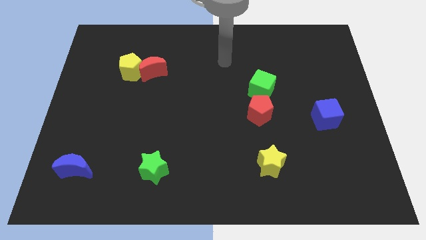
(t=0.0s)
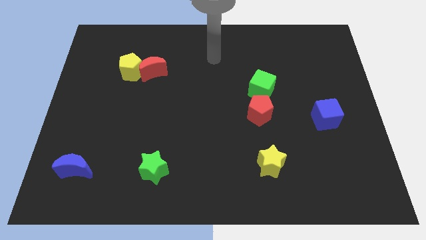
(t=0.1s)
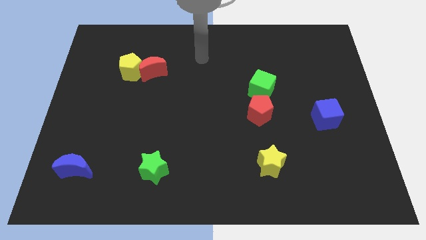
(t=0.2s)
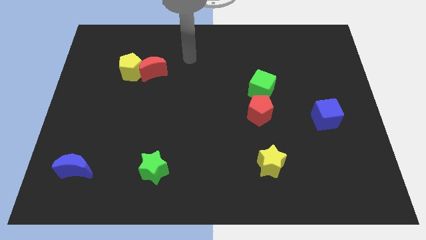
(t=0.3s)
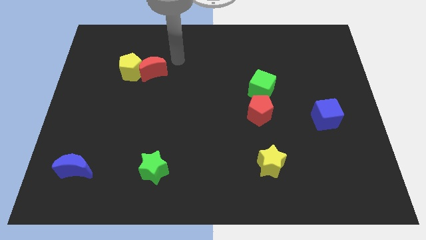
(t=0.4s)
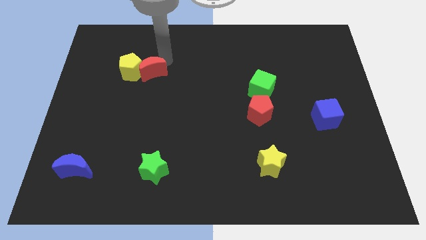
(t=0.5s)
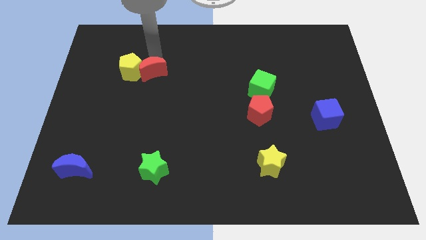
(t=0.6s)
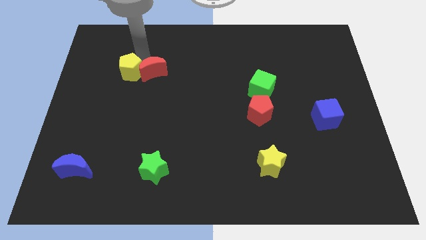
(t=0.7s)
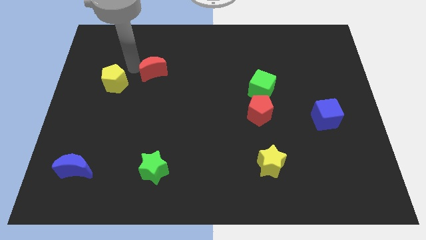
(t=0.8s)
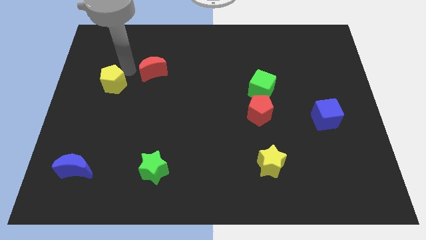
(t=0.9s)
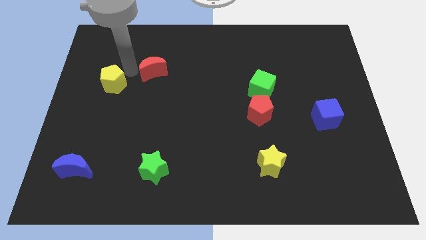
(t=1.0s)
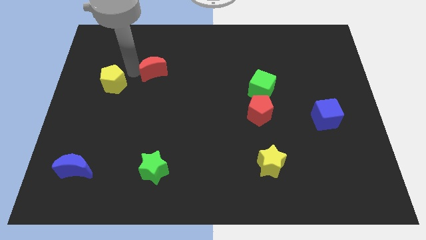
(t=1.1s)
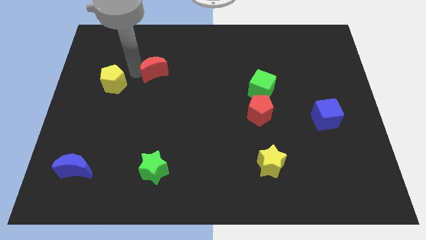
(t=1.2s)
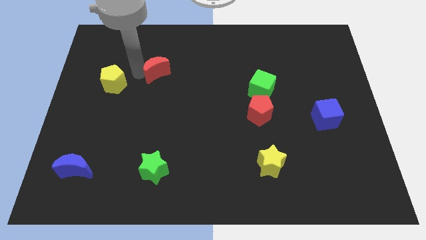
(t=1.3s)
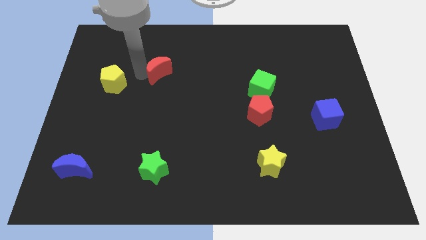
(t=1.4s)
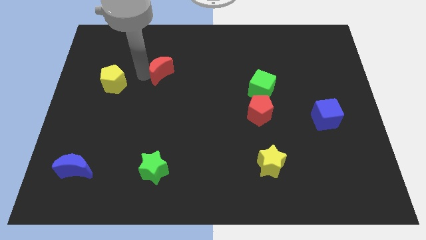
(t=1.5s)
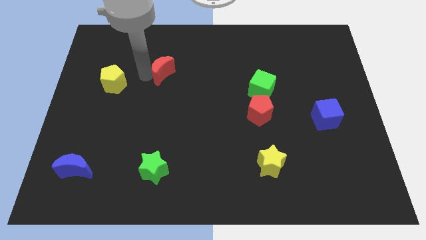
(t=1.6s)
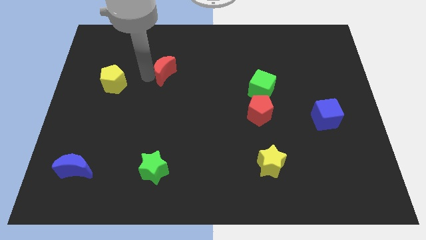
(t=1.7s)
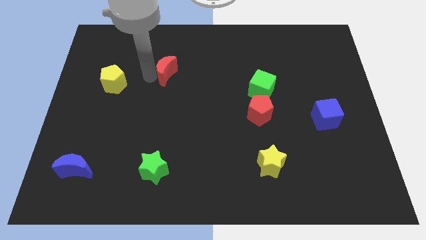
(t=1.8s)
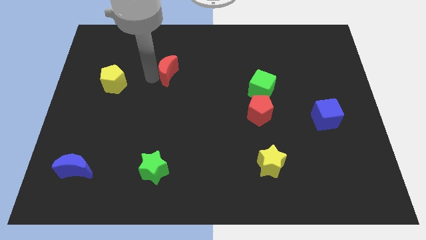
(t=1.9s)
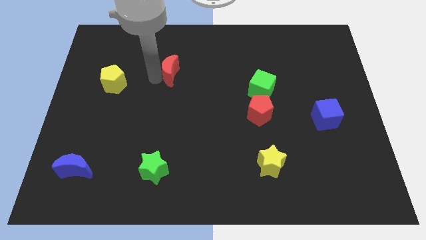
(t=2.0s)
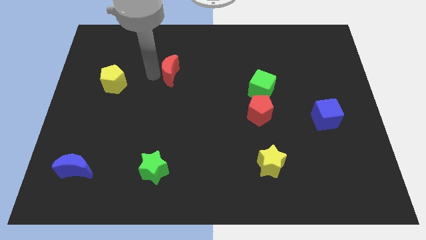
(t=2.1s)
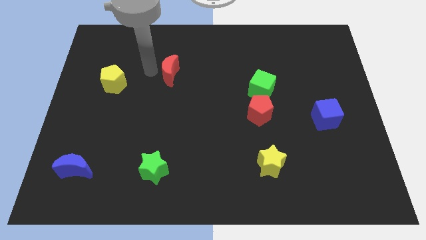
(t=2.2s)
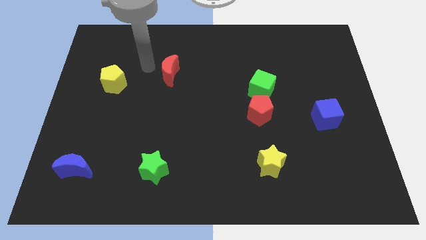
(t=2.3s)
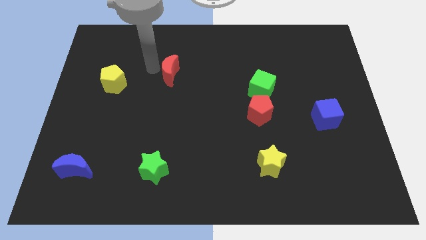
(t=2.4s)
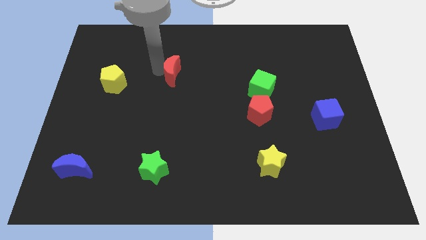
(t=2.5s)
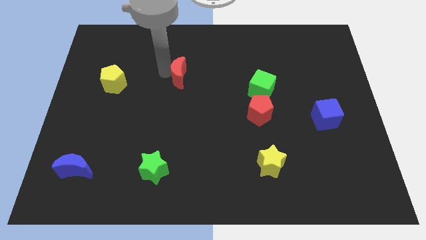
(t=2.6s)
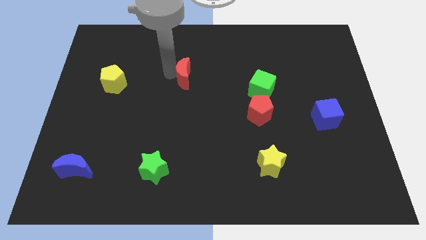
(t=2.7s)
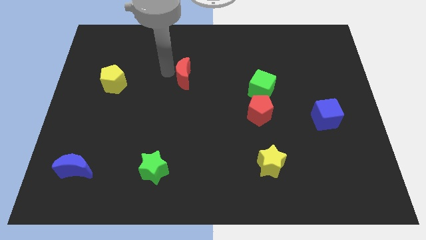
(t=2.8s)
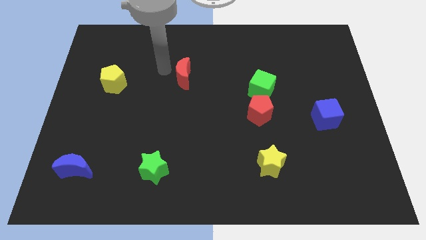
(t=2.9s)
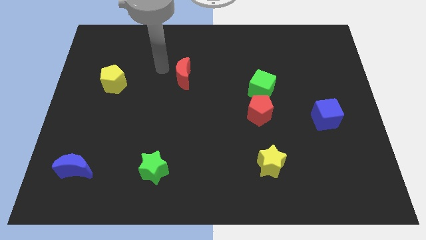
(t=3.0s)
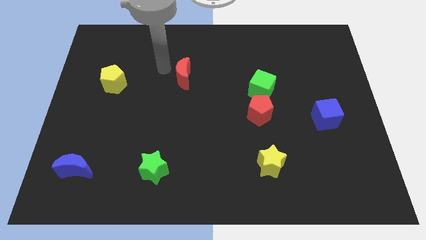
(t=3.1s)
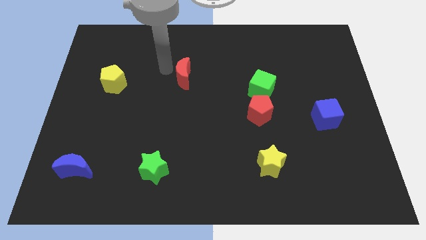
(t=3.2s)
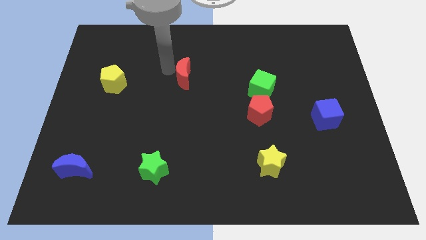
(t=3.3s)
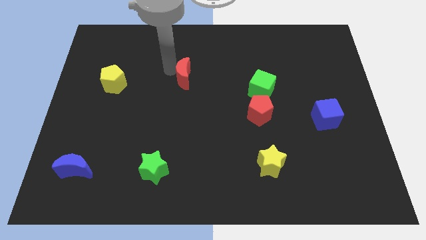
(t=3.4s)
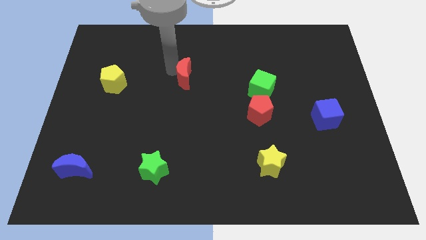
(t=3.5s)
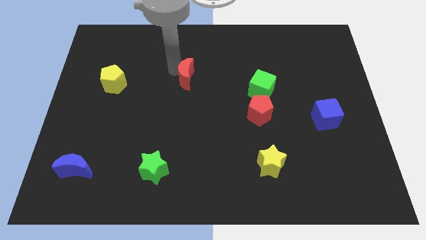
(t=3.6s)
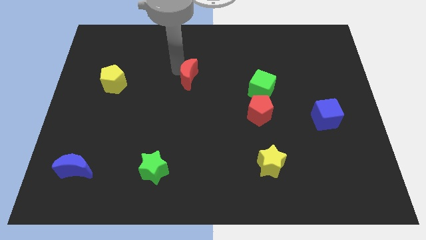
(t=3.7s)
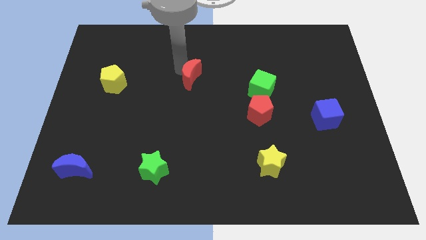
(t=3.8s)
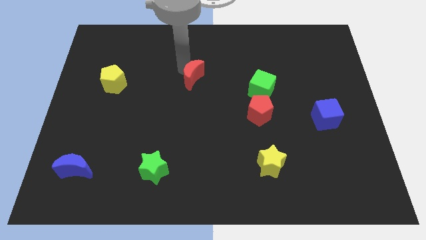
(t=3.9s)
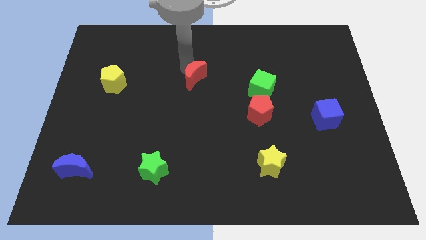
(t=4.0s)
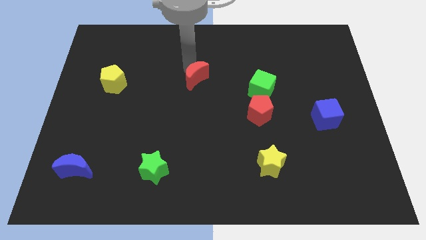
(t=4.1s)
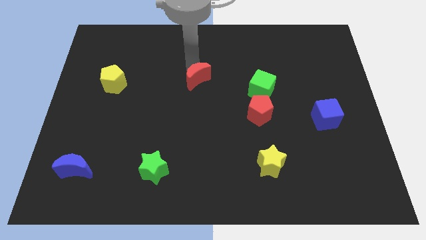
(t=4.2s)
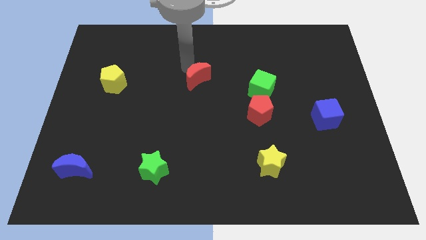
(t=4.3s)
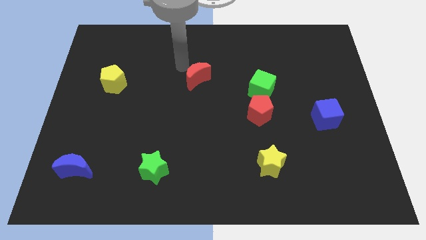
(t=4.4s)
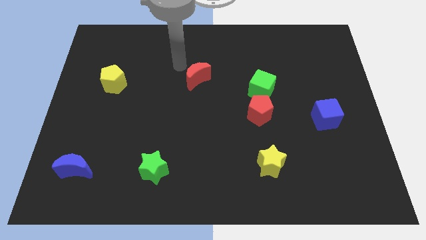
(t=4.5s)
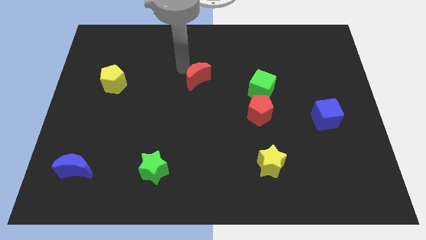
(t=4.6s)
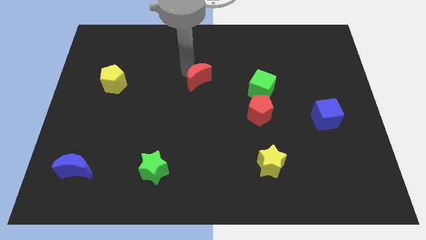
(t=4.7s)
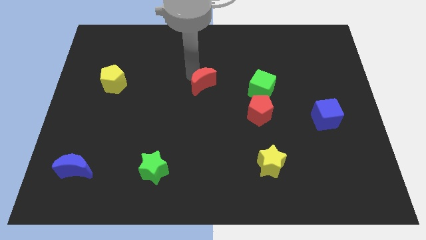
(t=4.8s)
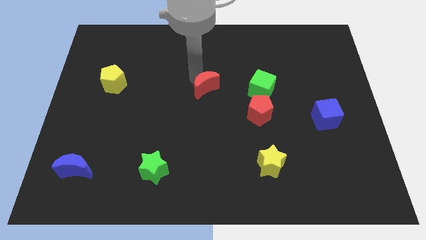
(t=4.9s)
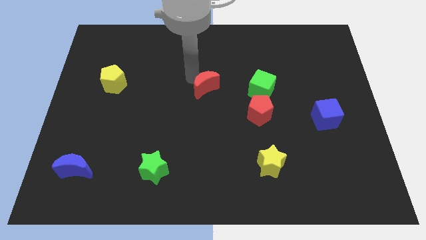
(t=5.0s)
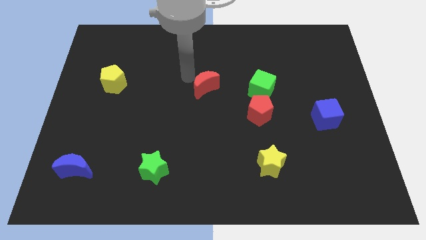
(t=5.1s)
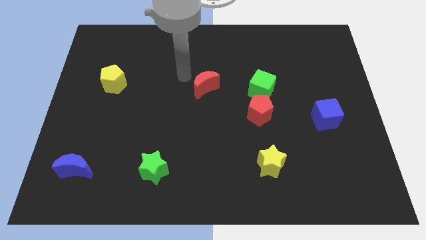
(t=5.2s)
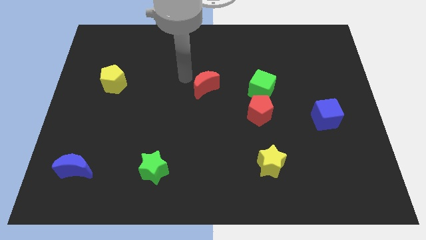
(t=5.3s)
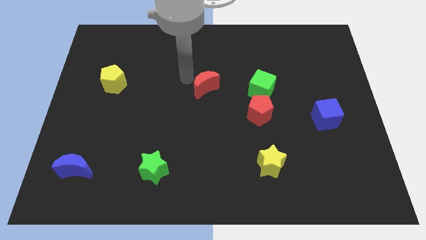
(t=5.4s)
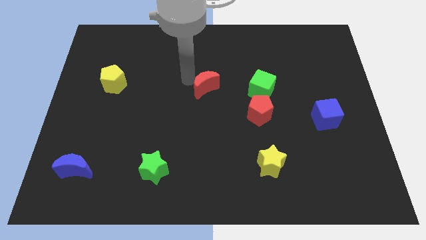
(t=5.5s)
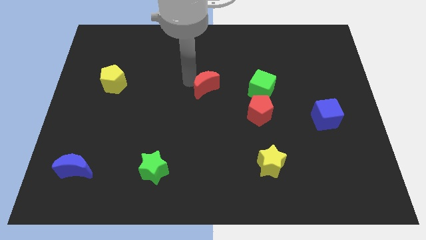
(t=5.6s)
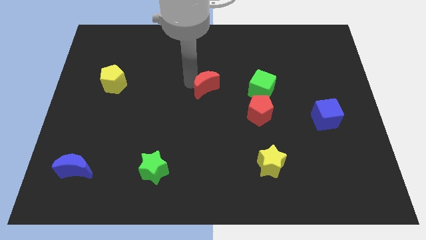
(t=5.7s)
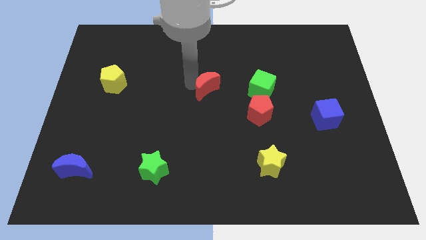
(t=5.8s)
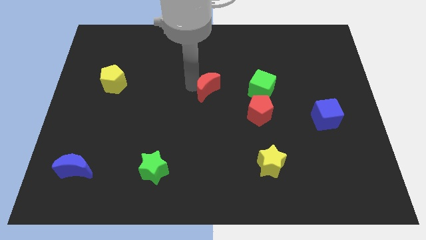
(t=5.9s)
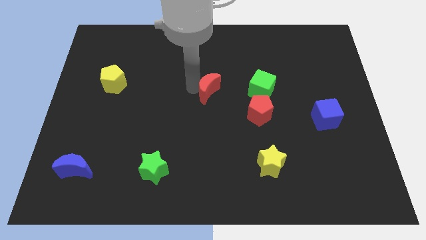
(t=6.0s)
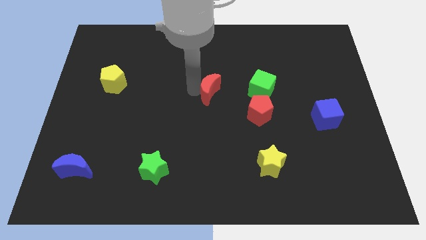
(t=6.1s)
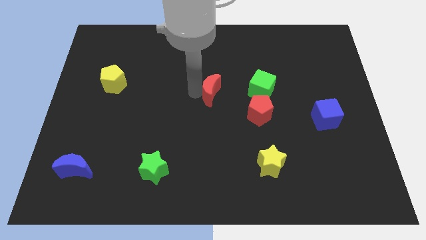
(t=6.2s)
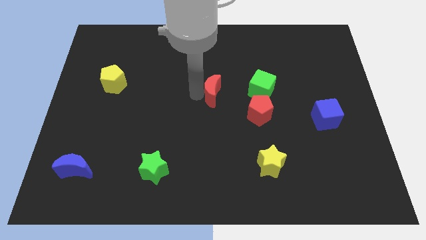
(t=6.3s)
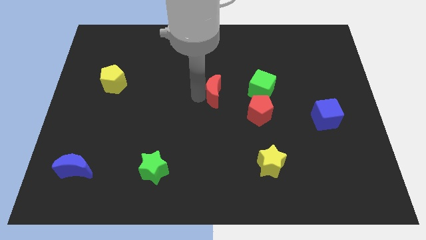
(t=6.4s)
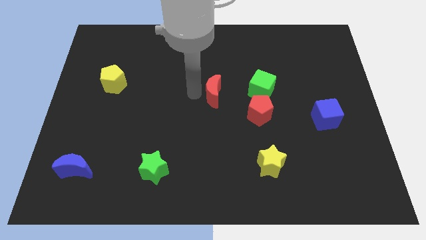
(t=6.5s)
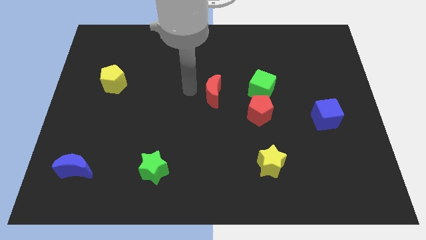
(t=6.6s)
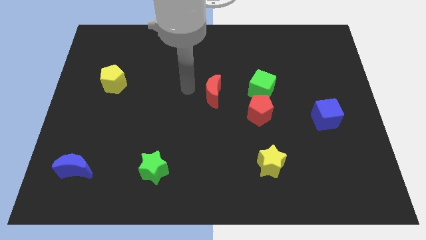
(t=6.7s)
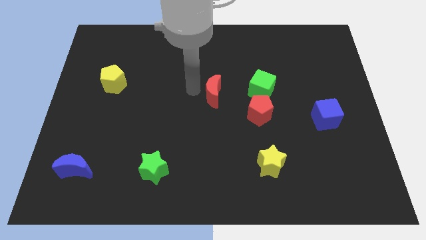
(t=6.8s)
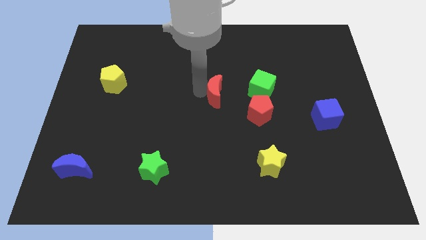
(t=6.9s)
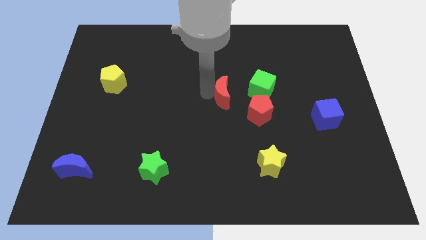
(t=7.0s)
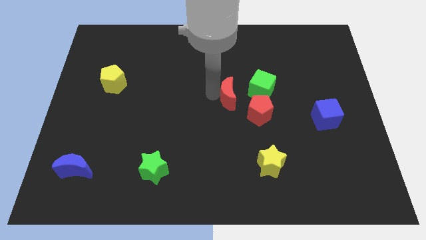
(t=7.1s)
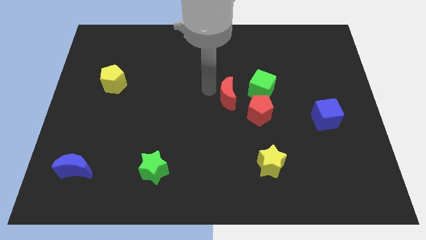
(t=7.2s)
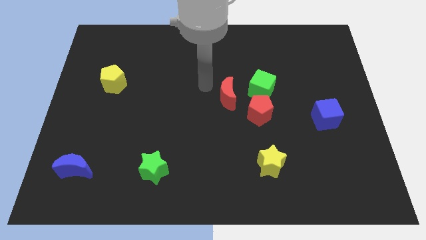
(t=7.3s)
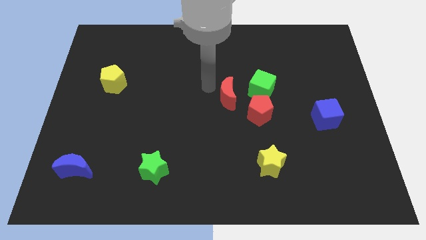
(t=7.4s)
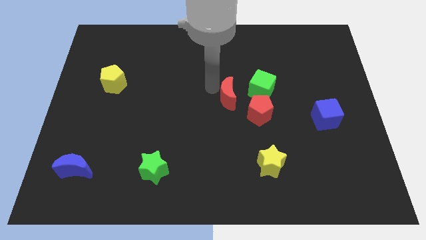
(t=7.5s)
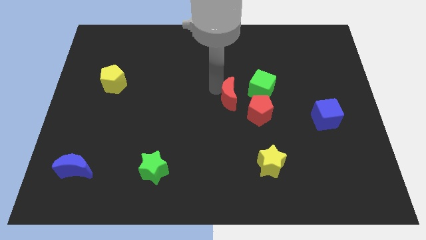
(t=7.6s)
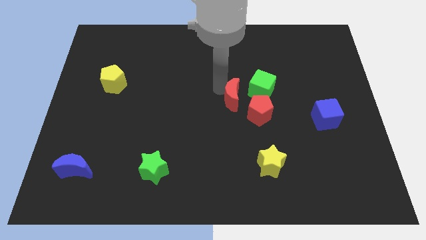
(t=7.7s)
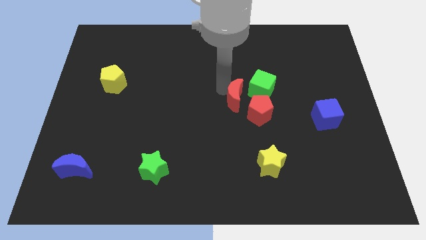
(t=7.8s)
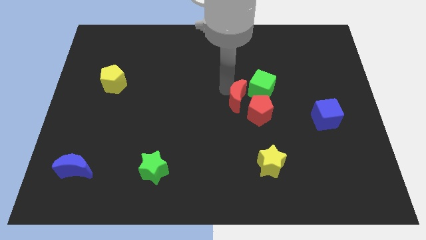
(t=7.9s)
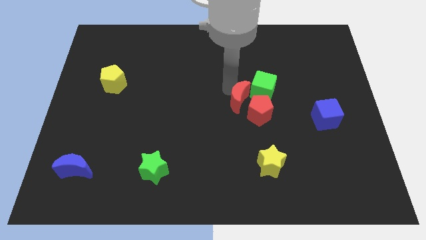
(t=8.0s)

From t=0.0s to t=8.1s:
slide the red moon towards the red pentagon
